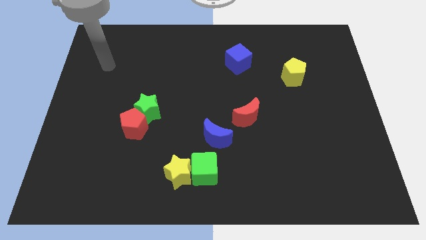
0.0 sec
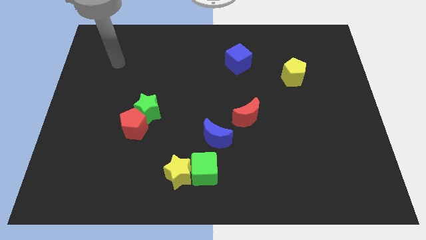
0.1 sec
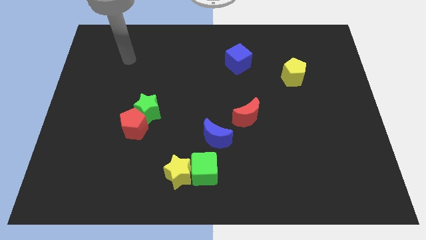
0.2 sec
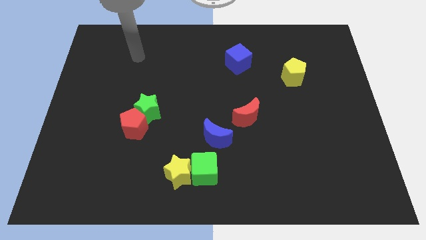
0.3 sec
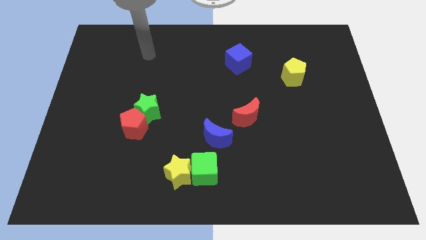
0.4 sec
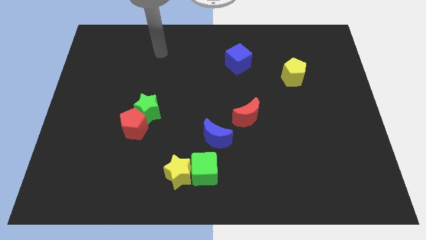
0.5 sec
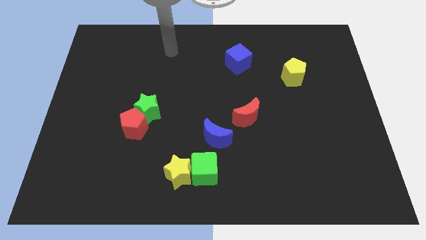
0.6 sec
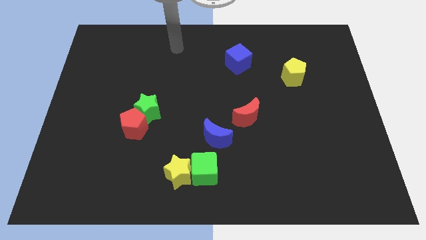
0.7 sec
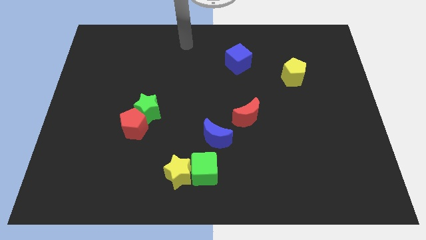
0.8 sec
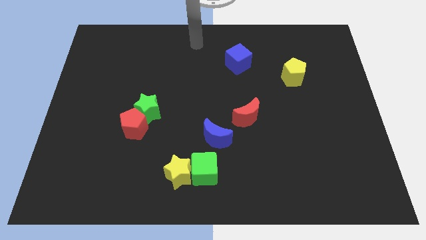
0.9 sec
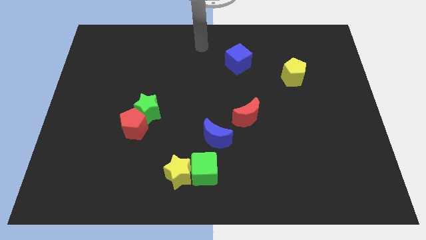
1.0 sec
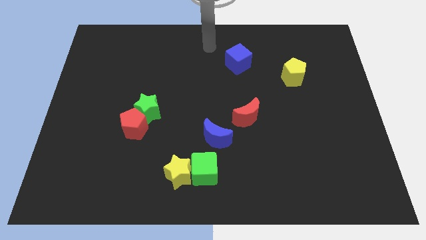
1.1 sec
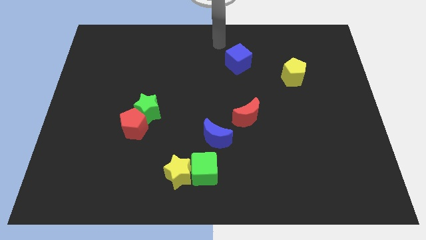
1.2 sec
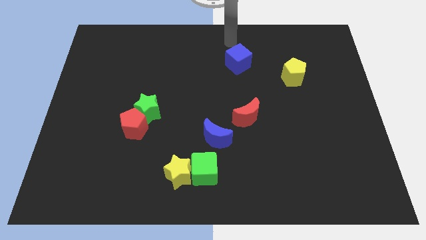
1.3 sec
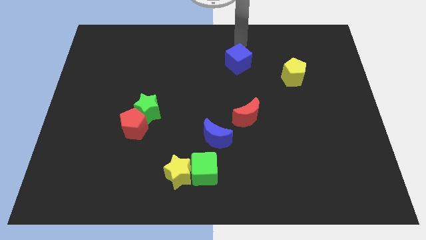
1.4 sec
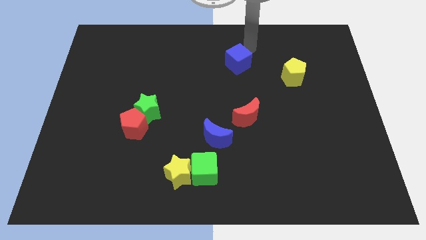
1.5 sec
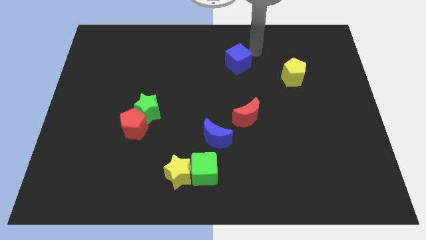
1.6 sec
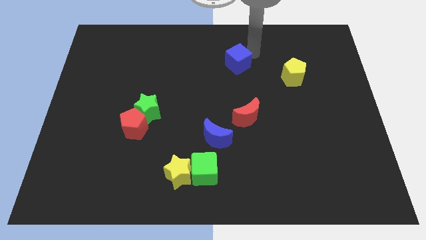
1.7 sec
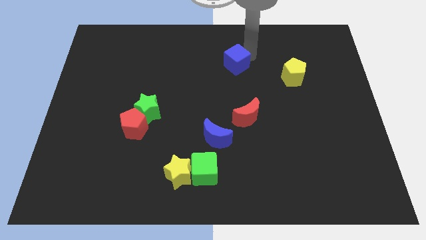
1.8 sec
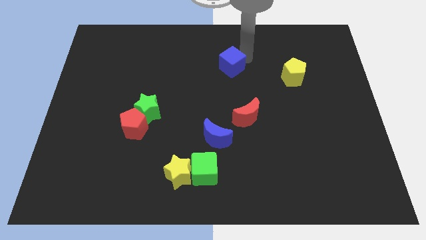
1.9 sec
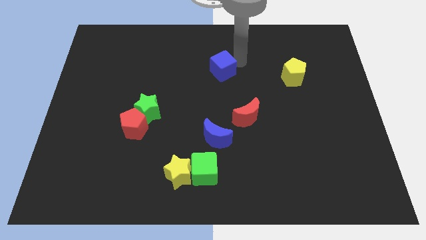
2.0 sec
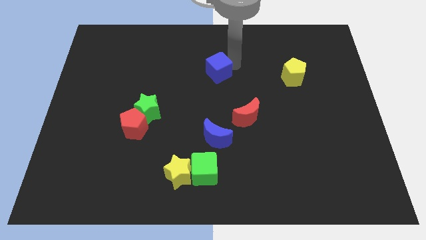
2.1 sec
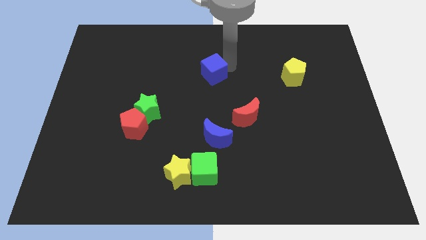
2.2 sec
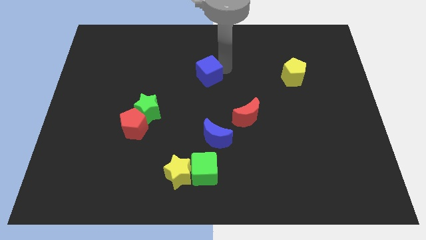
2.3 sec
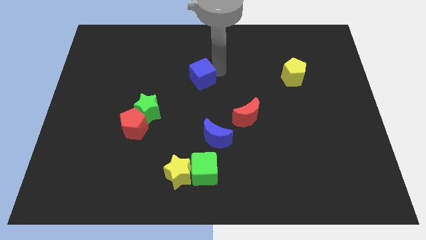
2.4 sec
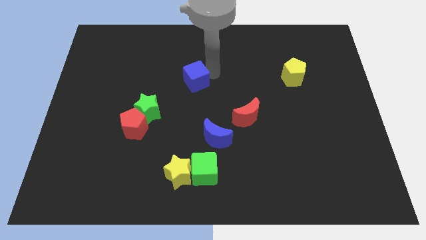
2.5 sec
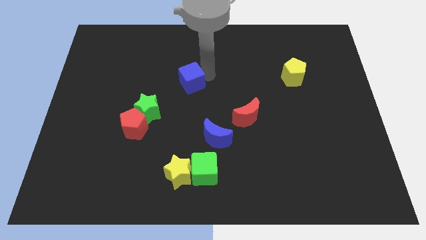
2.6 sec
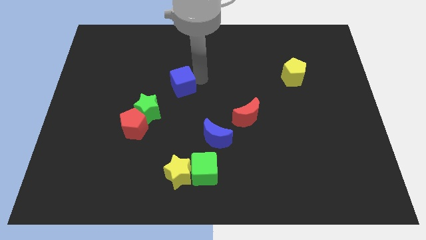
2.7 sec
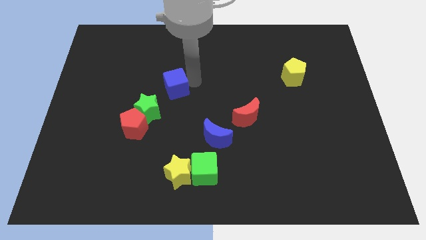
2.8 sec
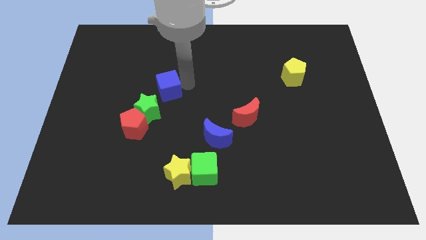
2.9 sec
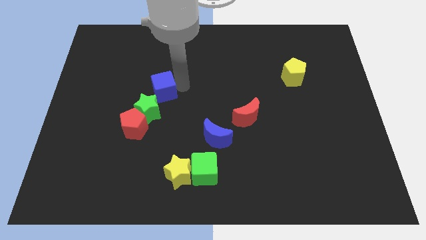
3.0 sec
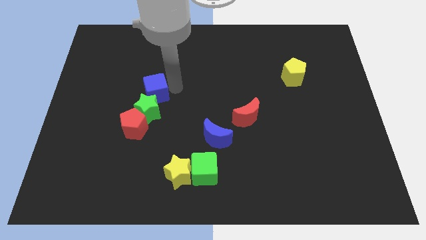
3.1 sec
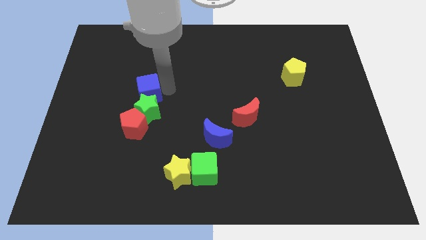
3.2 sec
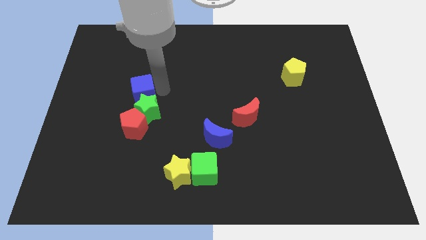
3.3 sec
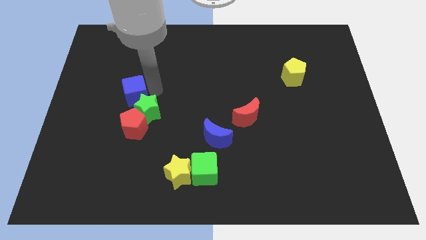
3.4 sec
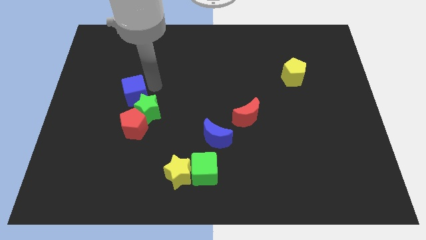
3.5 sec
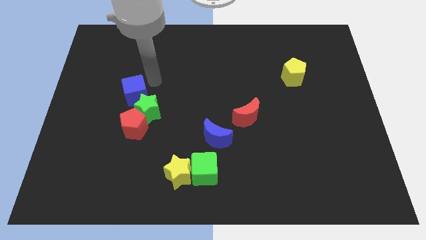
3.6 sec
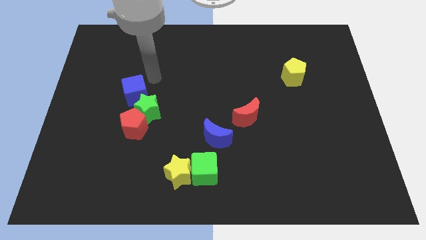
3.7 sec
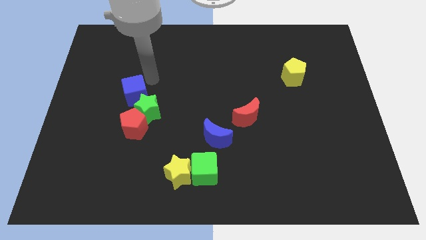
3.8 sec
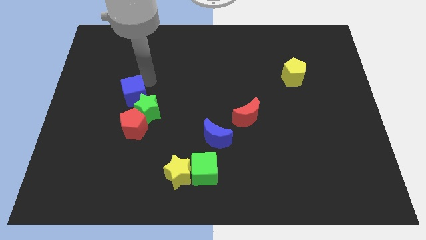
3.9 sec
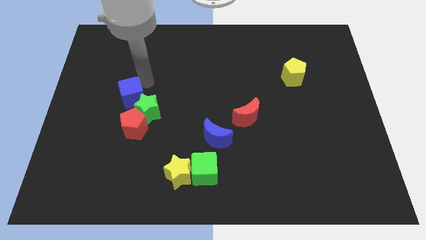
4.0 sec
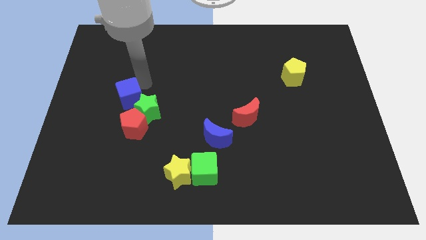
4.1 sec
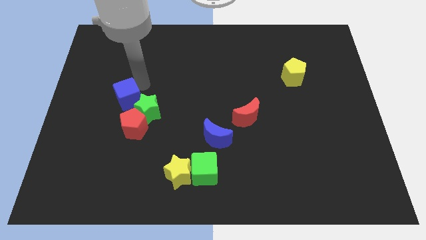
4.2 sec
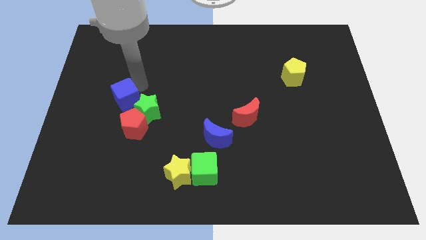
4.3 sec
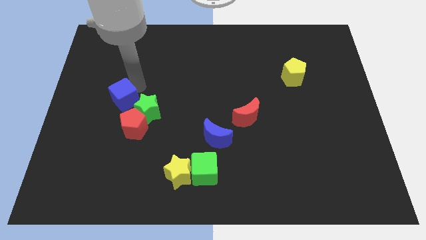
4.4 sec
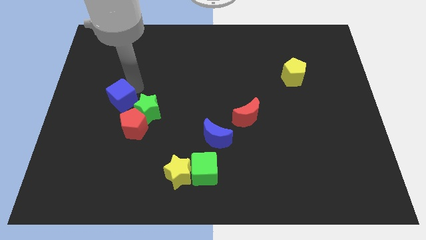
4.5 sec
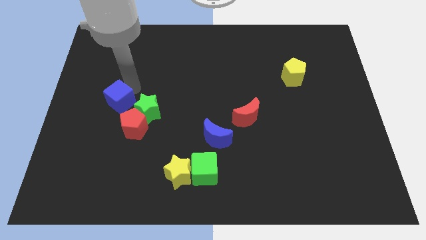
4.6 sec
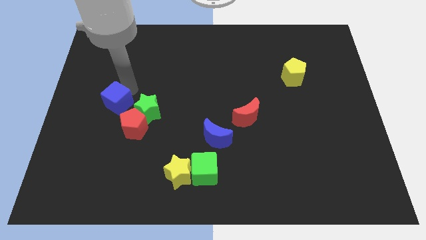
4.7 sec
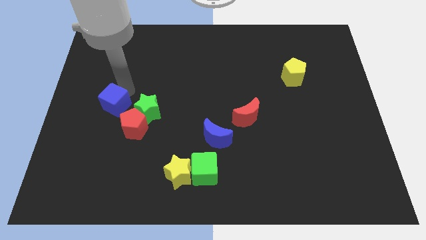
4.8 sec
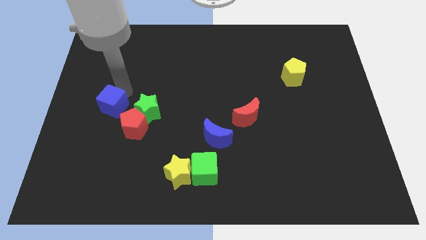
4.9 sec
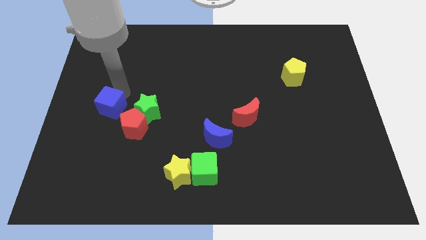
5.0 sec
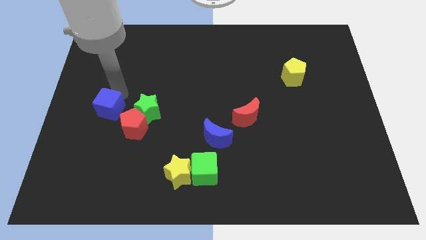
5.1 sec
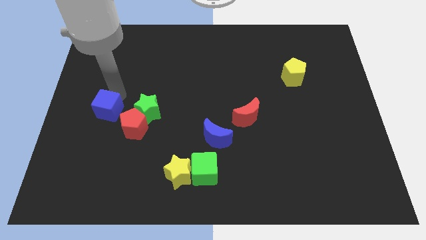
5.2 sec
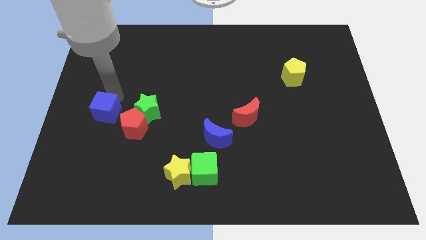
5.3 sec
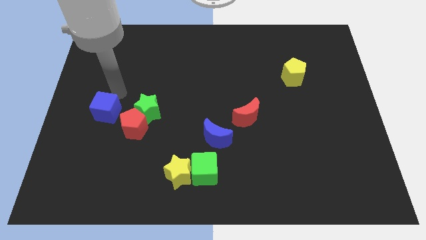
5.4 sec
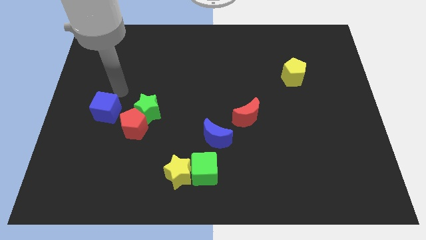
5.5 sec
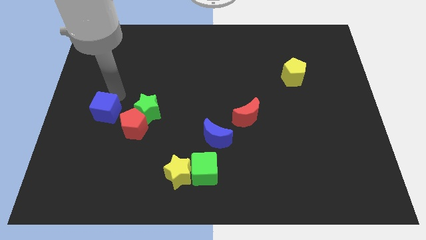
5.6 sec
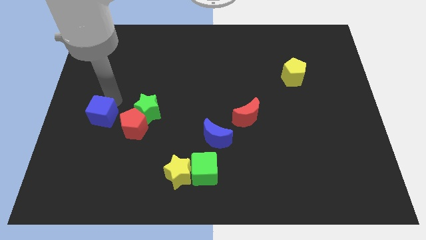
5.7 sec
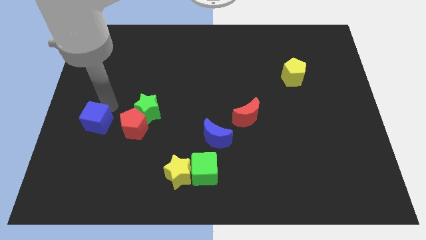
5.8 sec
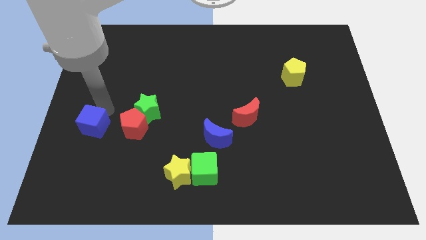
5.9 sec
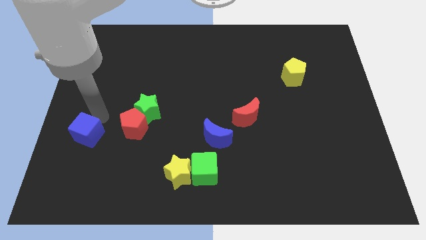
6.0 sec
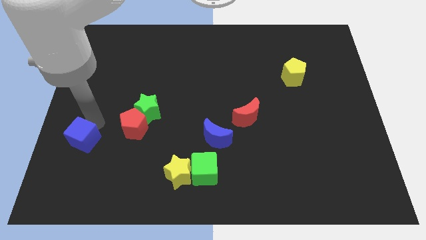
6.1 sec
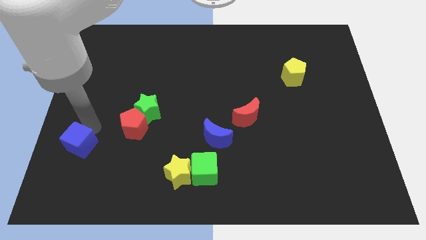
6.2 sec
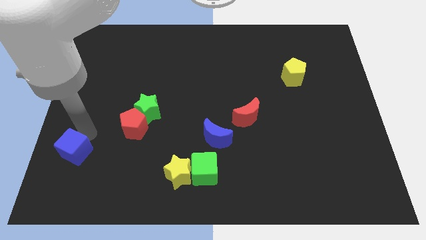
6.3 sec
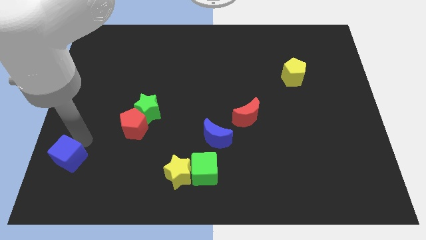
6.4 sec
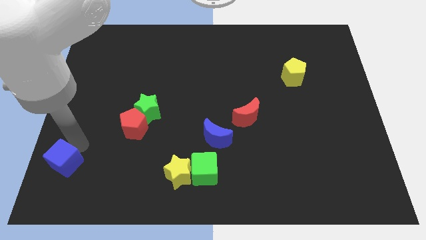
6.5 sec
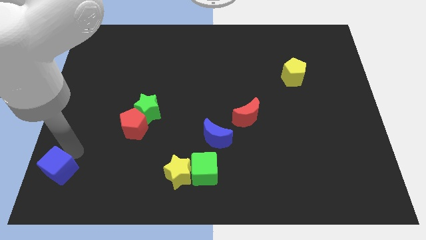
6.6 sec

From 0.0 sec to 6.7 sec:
put the blue cube to the lower left corner

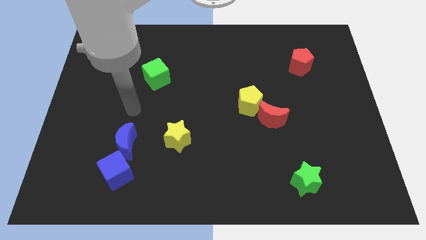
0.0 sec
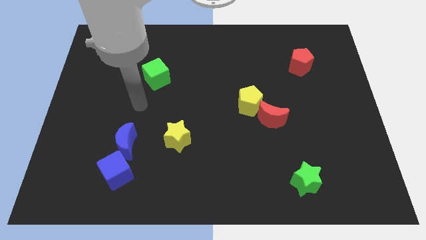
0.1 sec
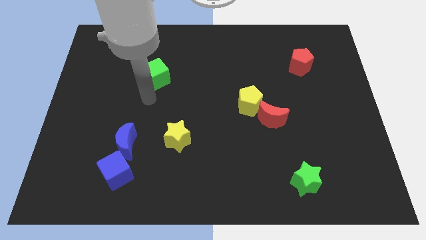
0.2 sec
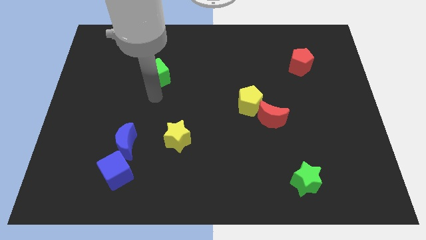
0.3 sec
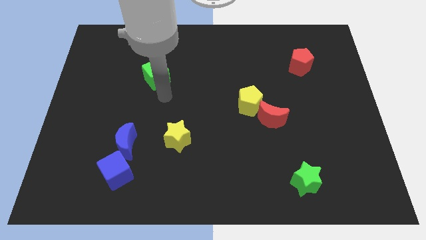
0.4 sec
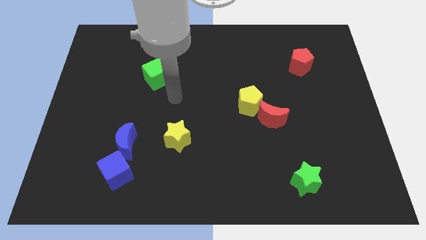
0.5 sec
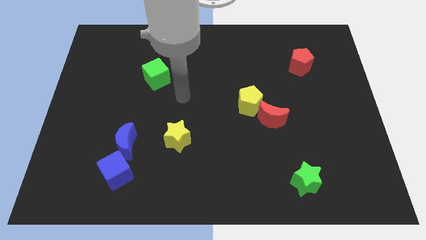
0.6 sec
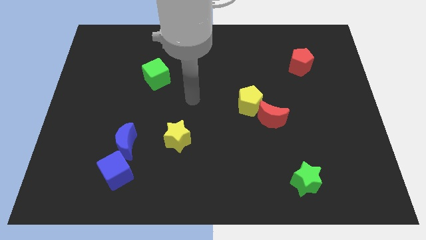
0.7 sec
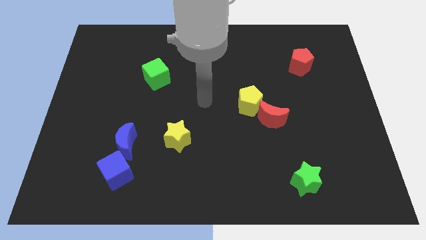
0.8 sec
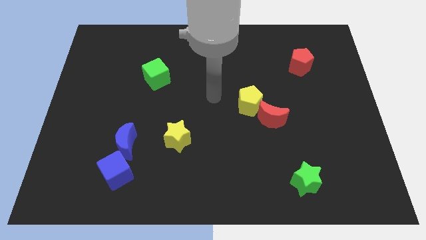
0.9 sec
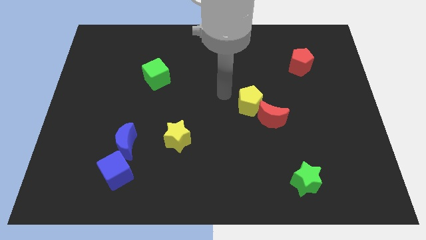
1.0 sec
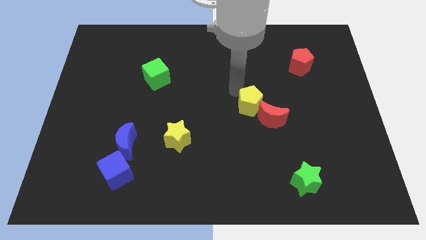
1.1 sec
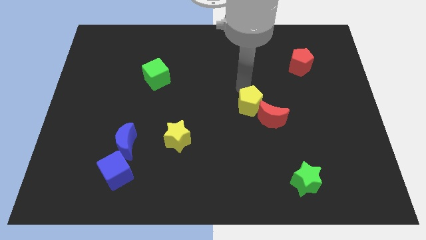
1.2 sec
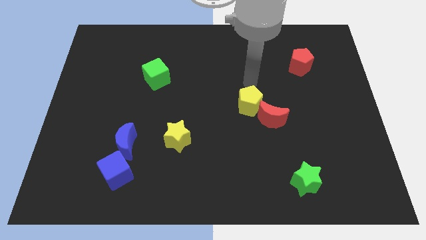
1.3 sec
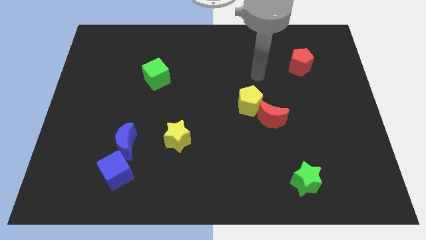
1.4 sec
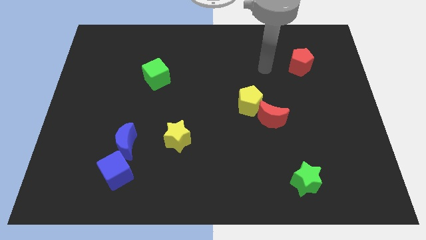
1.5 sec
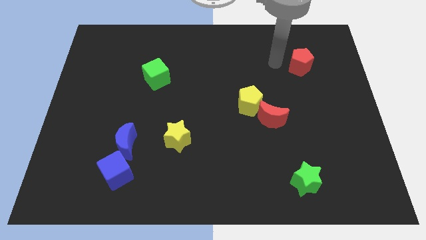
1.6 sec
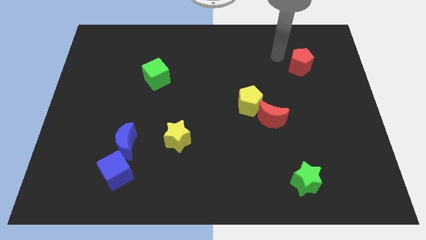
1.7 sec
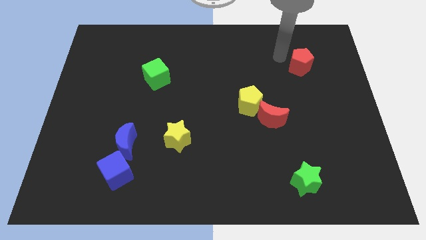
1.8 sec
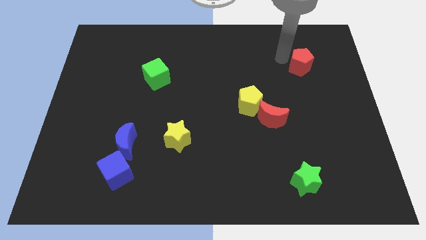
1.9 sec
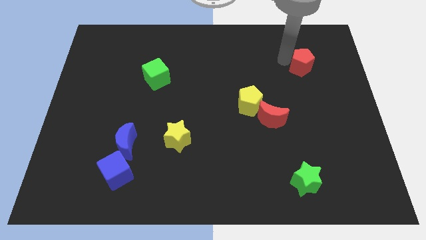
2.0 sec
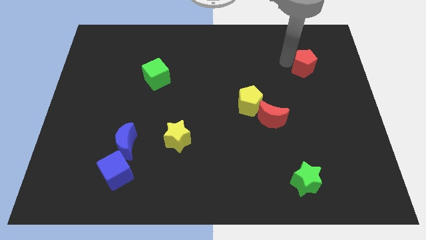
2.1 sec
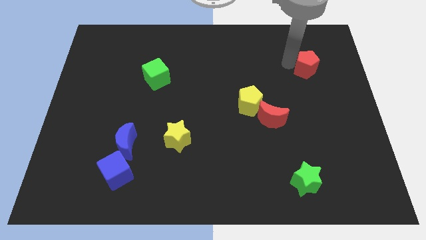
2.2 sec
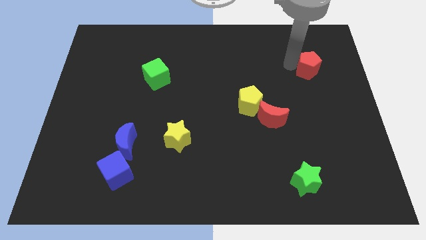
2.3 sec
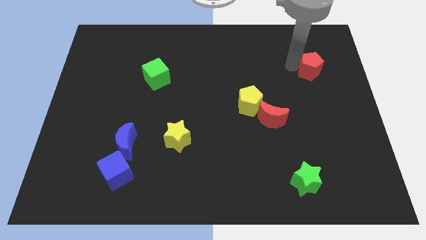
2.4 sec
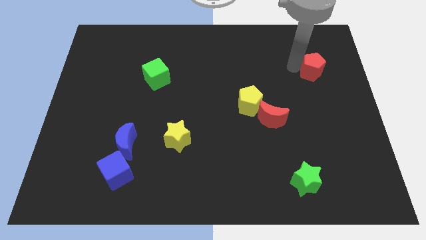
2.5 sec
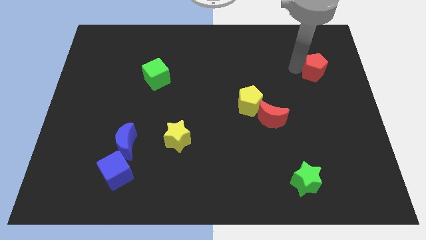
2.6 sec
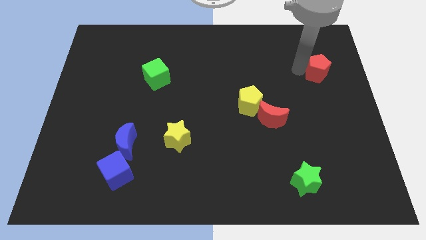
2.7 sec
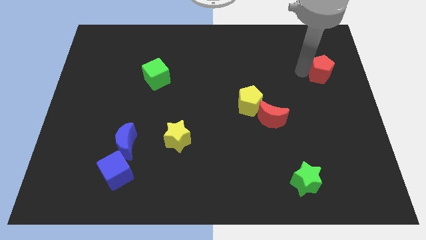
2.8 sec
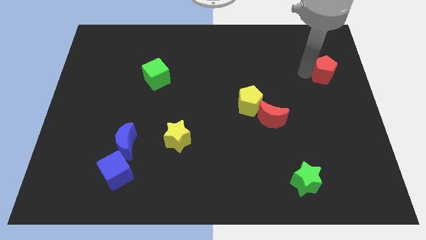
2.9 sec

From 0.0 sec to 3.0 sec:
slide the red pentagon to the center right
